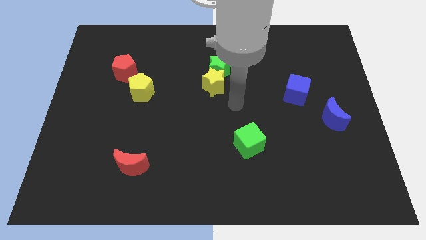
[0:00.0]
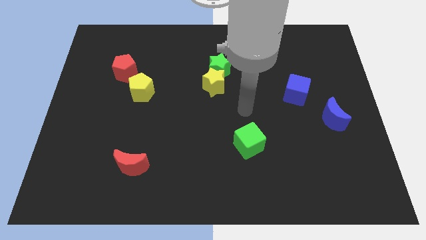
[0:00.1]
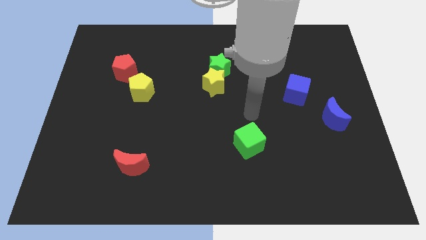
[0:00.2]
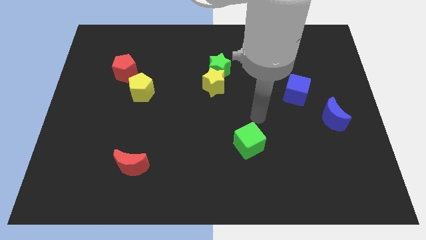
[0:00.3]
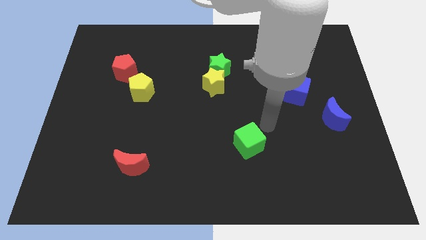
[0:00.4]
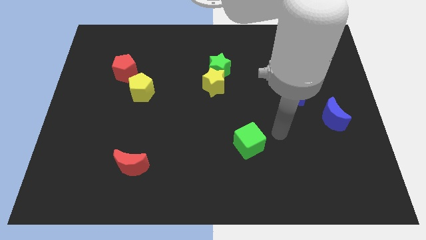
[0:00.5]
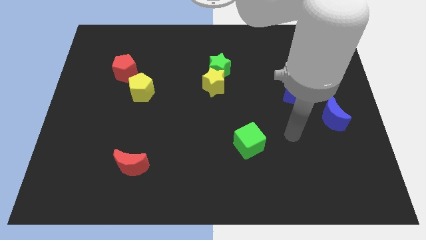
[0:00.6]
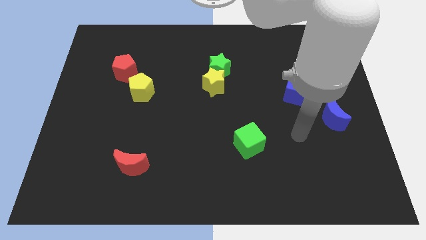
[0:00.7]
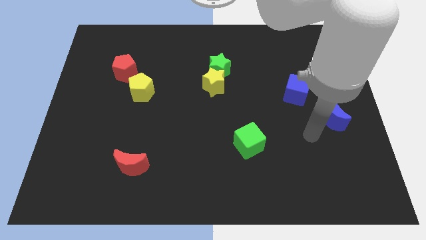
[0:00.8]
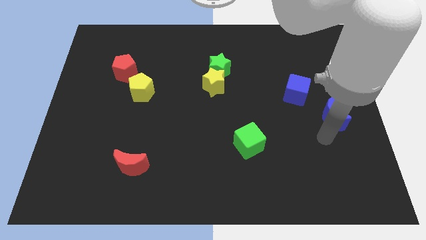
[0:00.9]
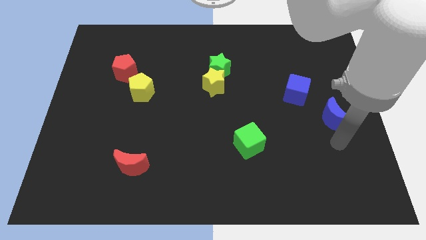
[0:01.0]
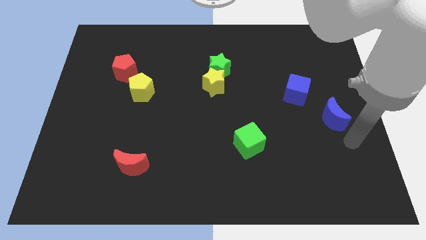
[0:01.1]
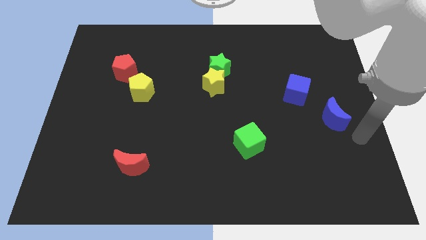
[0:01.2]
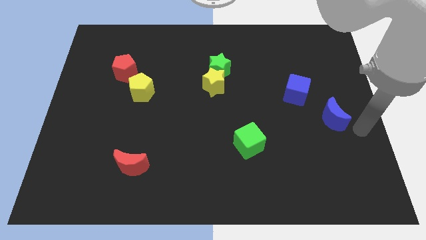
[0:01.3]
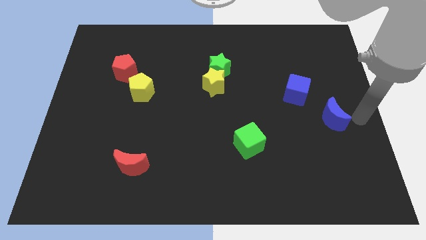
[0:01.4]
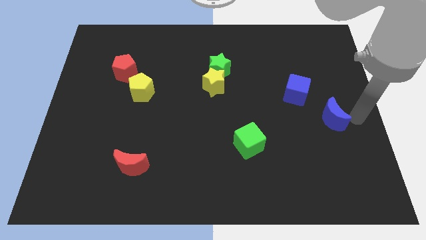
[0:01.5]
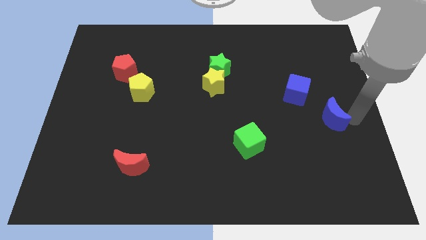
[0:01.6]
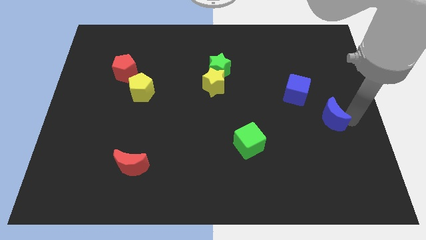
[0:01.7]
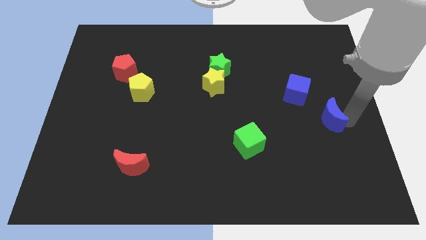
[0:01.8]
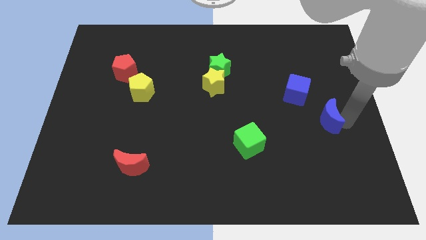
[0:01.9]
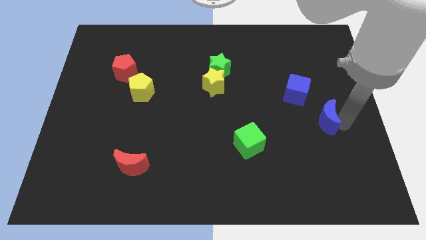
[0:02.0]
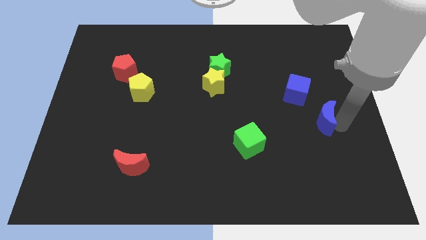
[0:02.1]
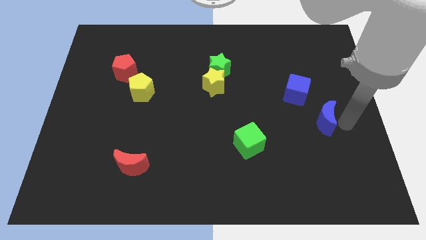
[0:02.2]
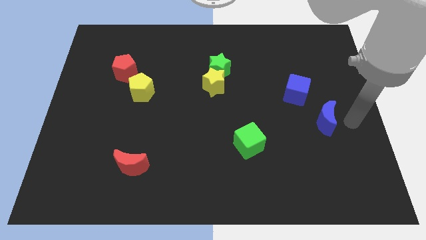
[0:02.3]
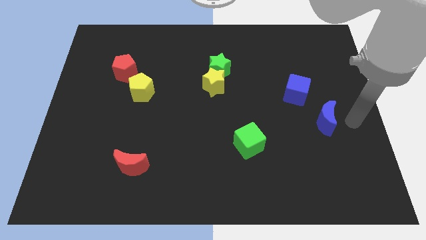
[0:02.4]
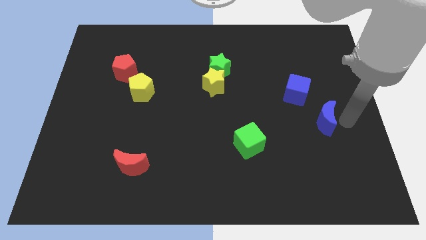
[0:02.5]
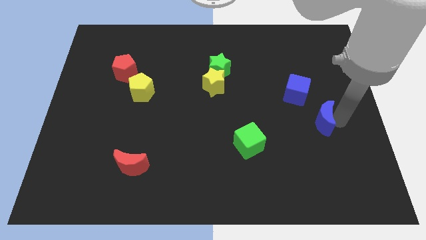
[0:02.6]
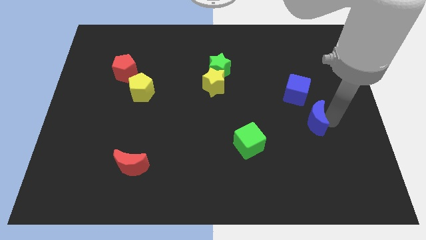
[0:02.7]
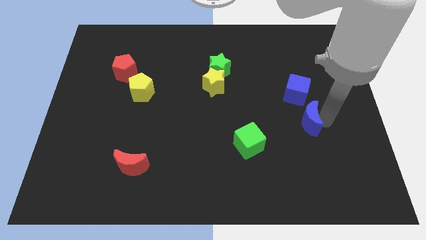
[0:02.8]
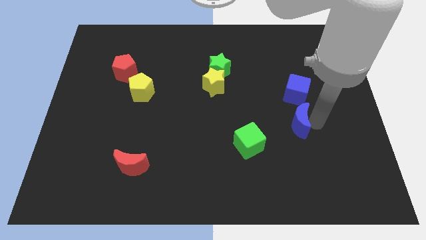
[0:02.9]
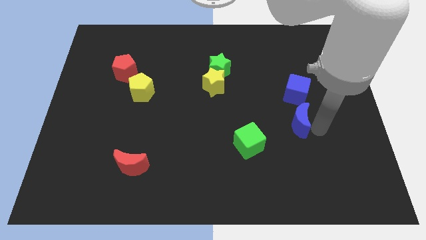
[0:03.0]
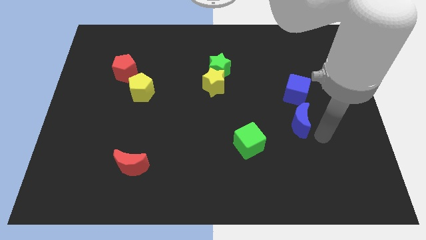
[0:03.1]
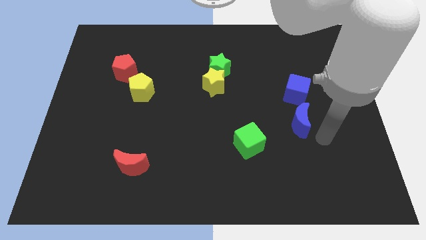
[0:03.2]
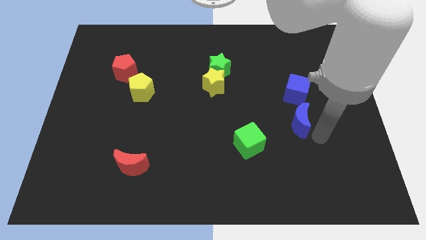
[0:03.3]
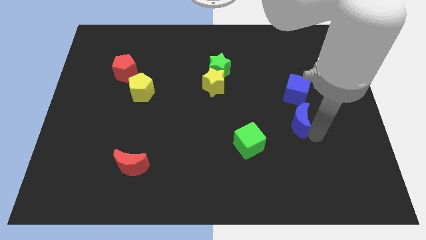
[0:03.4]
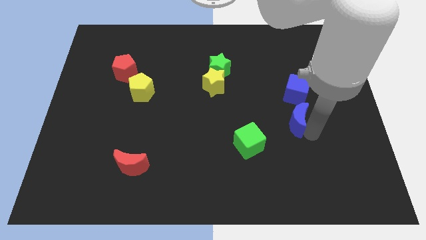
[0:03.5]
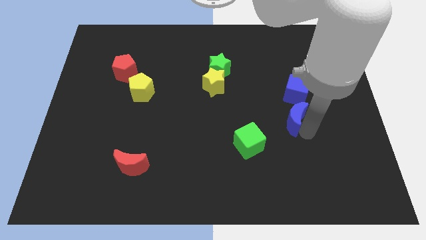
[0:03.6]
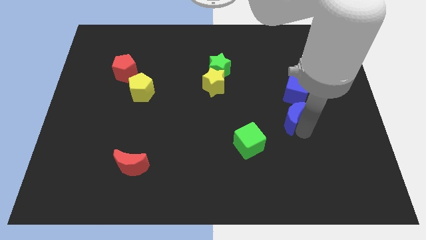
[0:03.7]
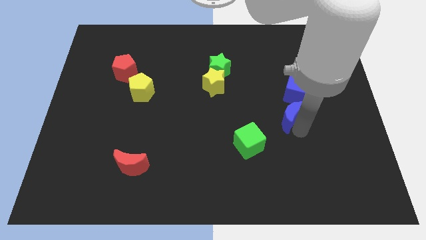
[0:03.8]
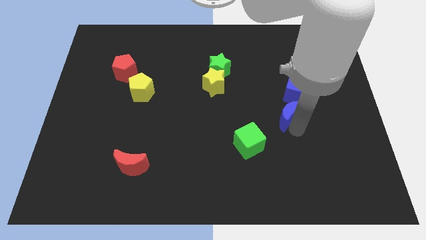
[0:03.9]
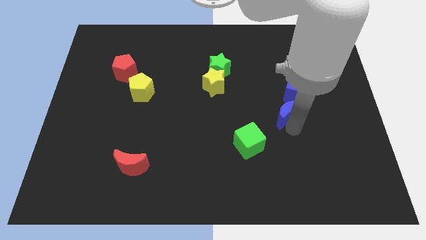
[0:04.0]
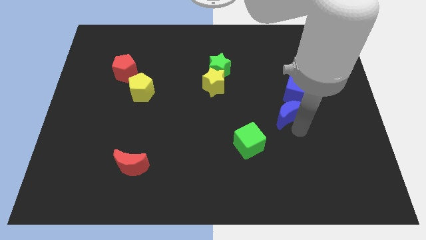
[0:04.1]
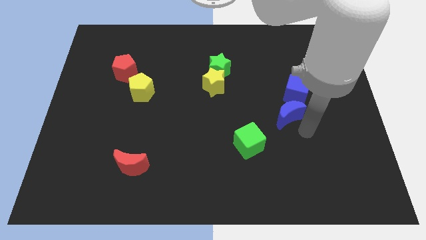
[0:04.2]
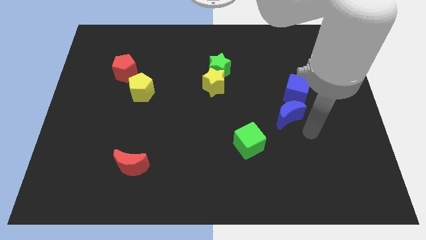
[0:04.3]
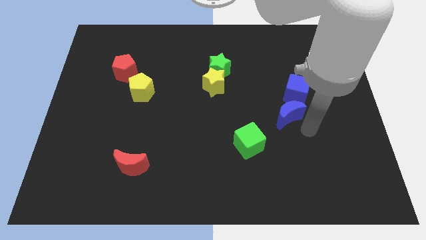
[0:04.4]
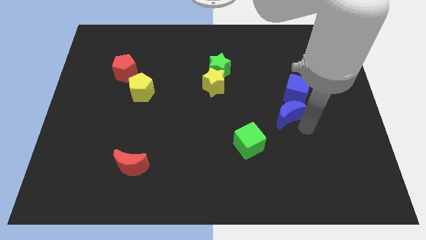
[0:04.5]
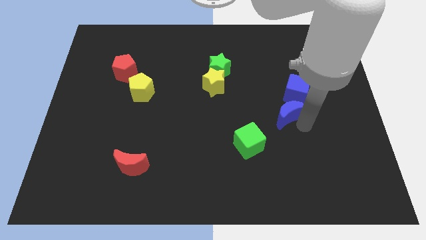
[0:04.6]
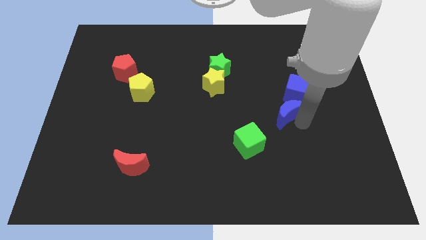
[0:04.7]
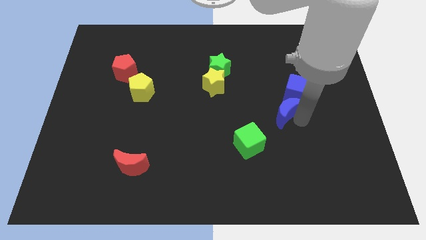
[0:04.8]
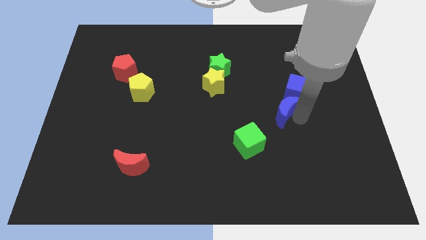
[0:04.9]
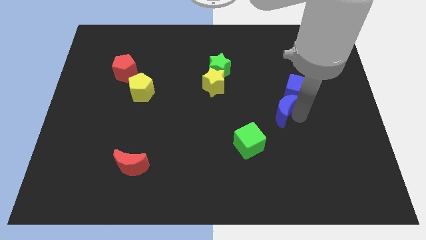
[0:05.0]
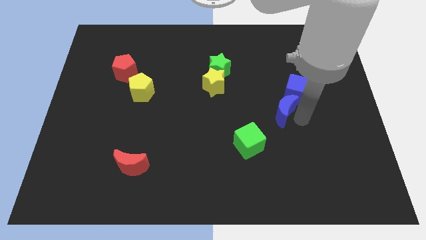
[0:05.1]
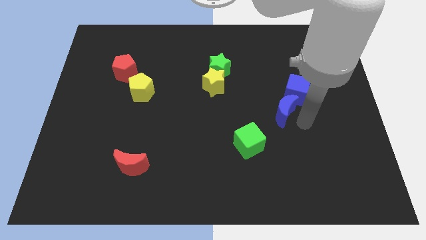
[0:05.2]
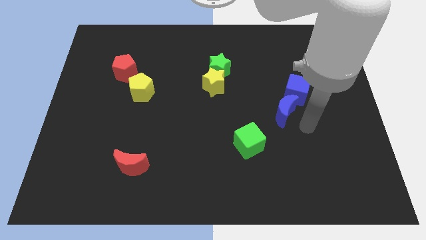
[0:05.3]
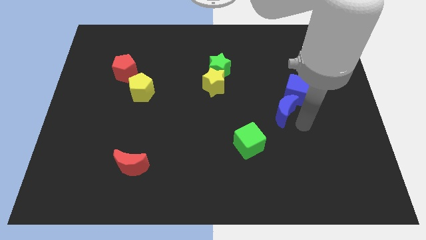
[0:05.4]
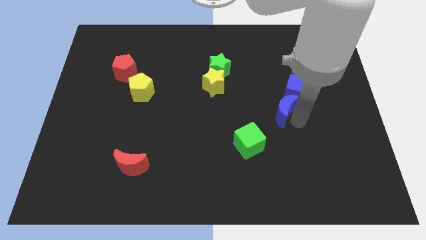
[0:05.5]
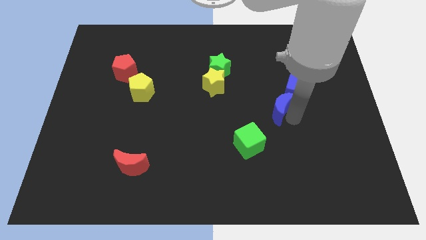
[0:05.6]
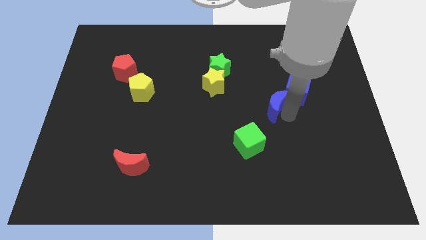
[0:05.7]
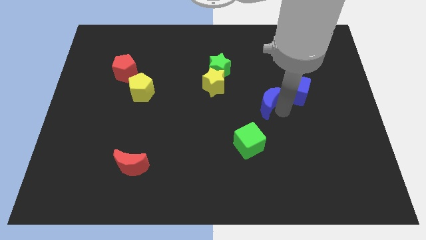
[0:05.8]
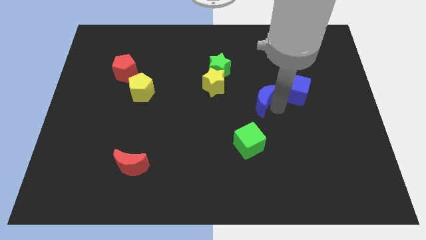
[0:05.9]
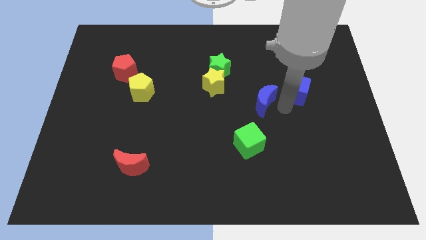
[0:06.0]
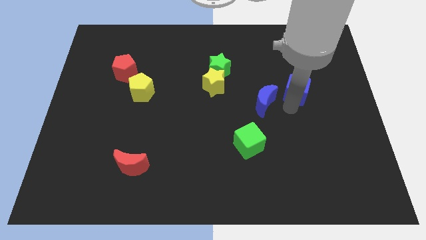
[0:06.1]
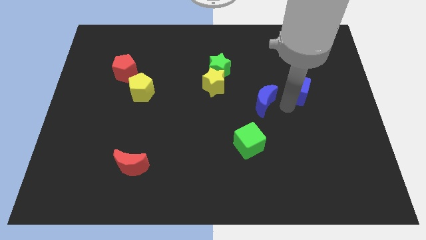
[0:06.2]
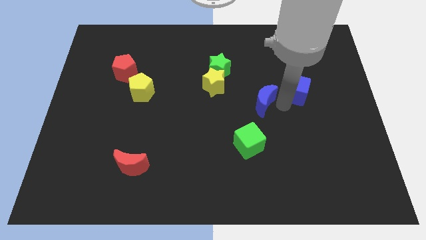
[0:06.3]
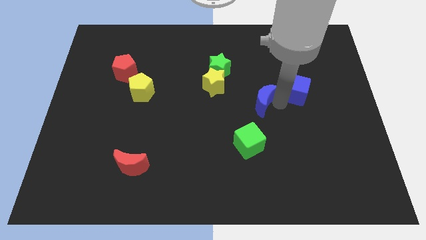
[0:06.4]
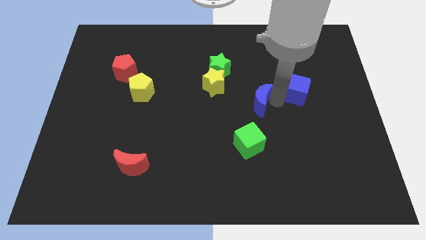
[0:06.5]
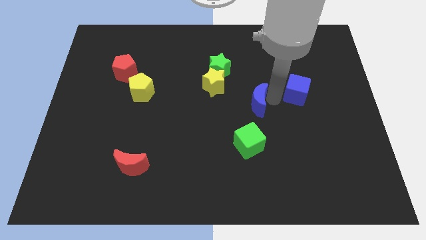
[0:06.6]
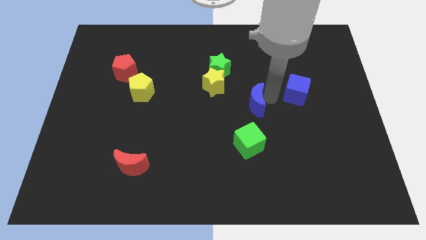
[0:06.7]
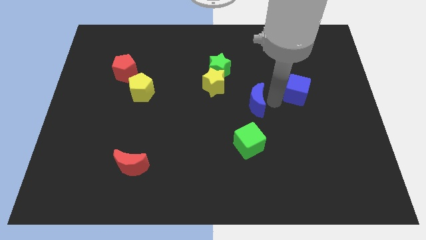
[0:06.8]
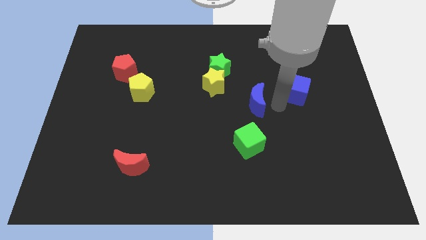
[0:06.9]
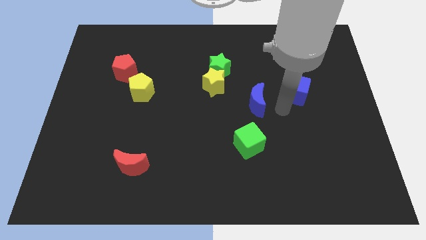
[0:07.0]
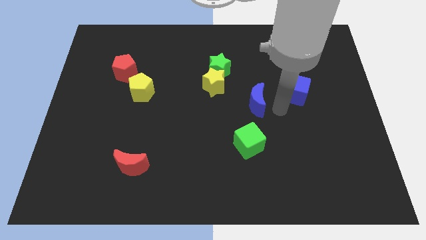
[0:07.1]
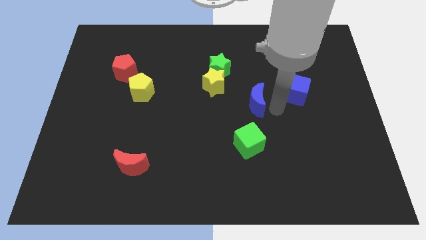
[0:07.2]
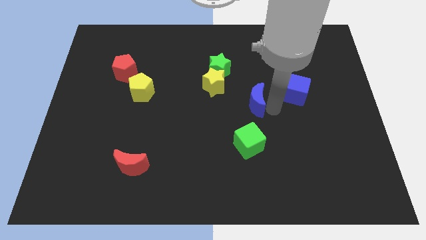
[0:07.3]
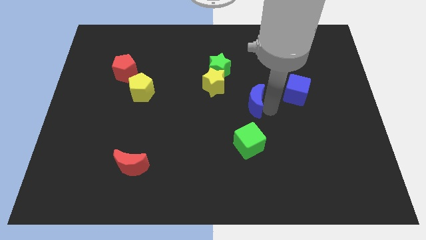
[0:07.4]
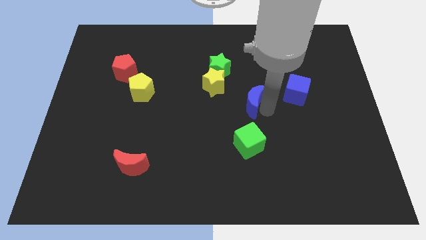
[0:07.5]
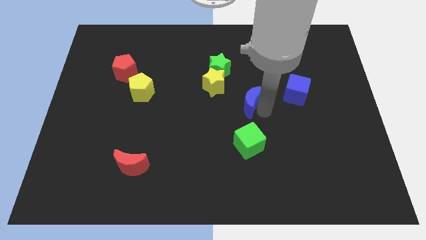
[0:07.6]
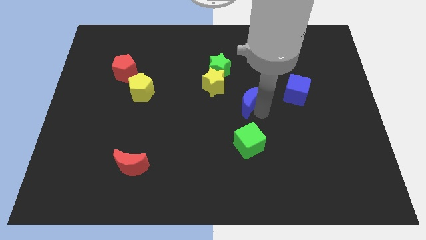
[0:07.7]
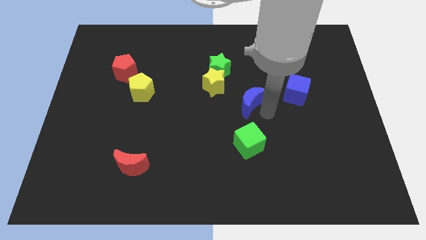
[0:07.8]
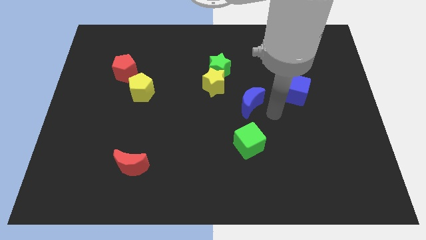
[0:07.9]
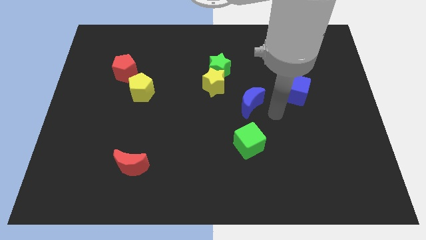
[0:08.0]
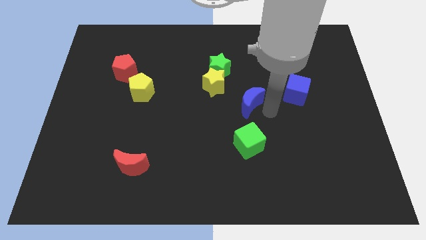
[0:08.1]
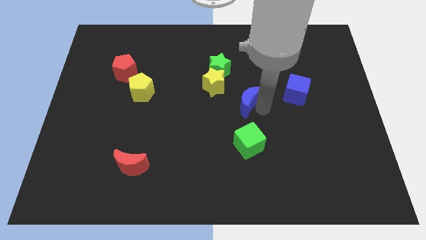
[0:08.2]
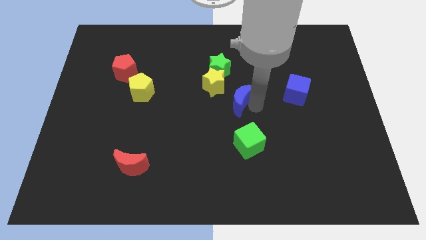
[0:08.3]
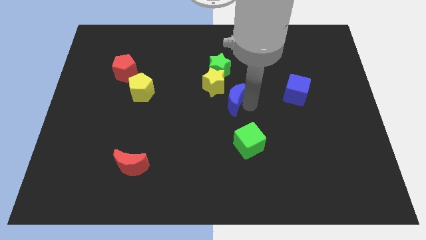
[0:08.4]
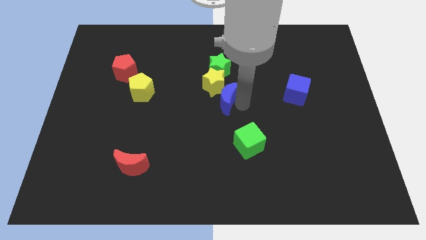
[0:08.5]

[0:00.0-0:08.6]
push the blue moon next to the yellow star
